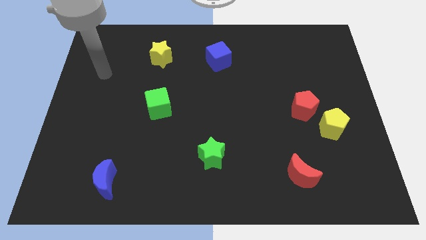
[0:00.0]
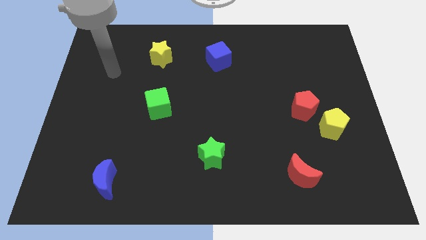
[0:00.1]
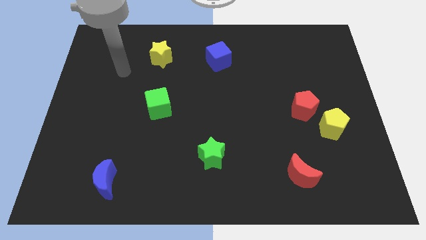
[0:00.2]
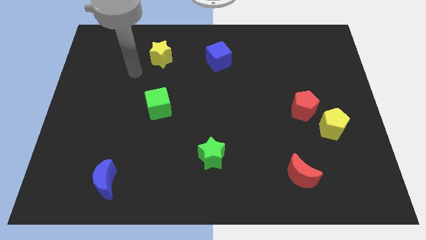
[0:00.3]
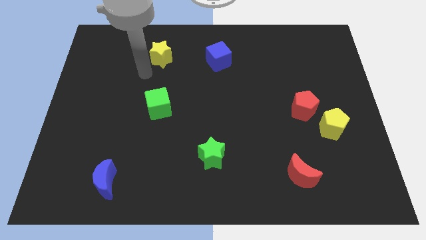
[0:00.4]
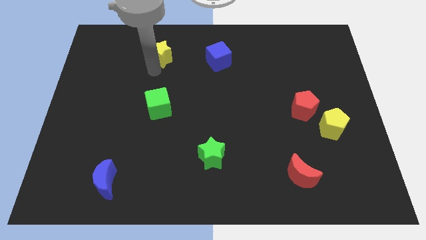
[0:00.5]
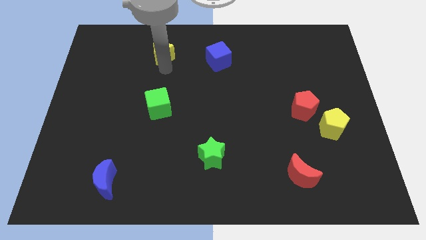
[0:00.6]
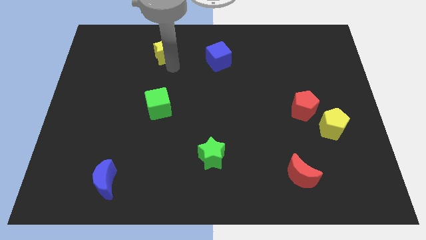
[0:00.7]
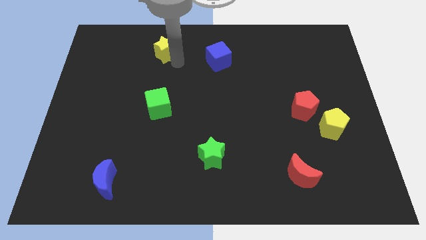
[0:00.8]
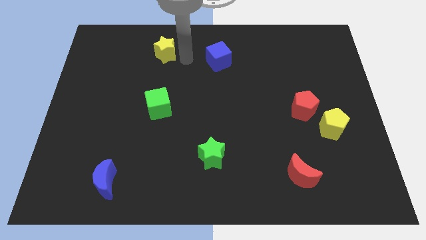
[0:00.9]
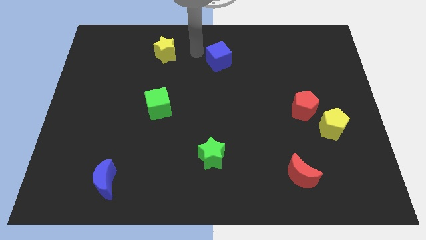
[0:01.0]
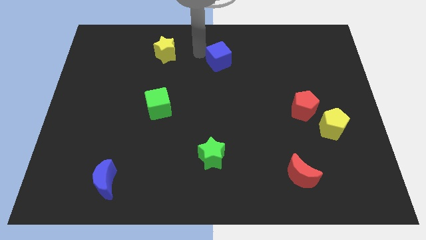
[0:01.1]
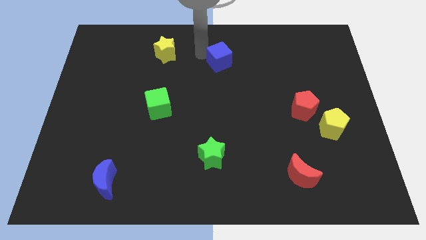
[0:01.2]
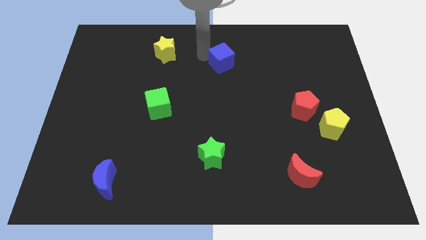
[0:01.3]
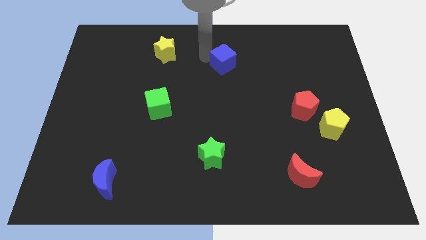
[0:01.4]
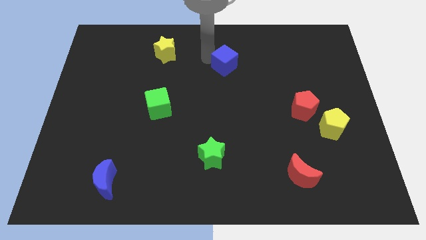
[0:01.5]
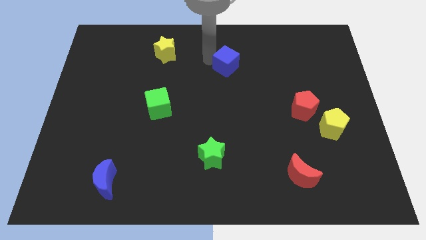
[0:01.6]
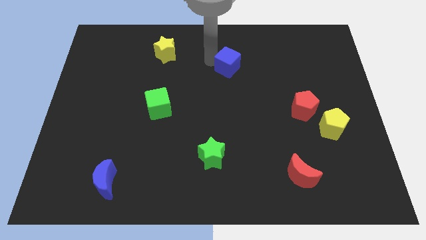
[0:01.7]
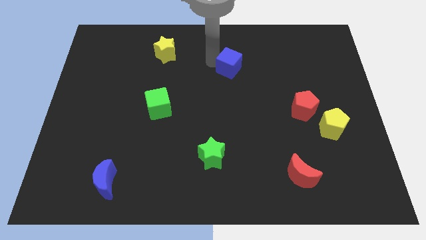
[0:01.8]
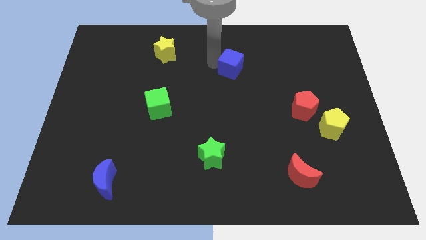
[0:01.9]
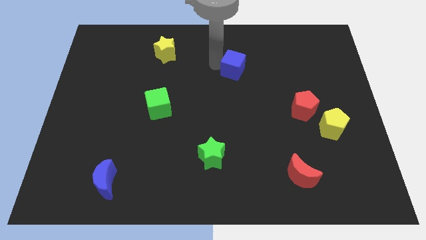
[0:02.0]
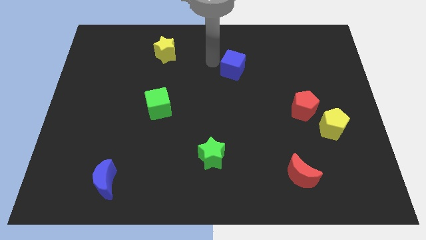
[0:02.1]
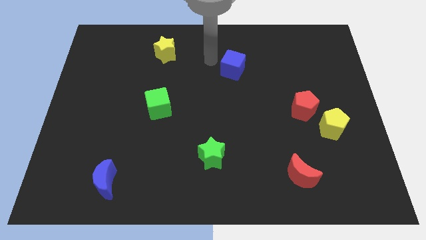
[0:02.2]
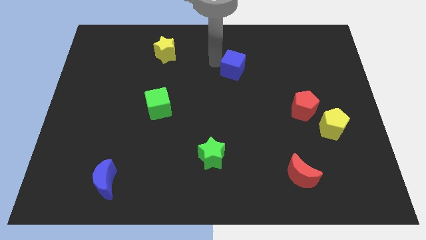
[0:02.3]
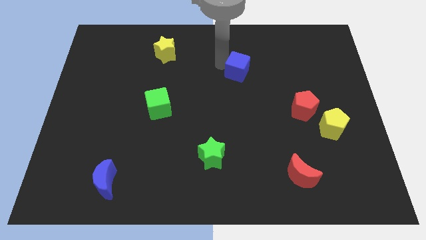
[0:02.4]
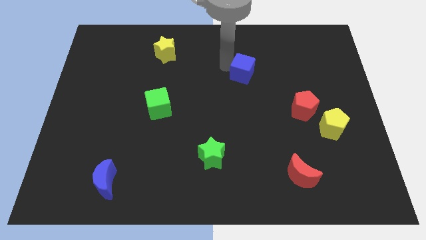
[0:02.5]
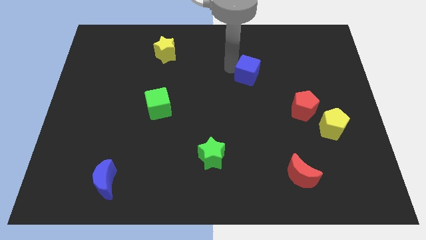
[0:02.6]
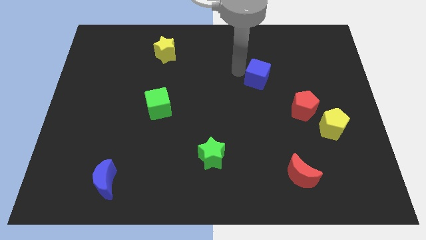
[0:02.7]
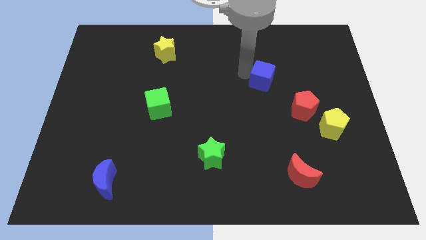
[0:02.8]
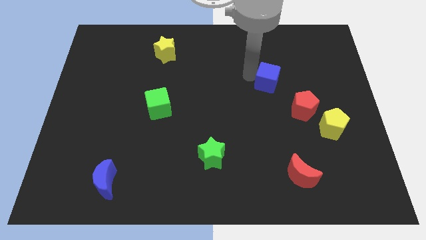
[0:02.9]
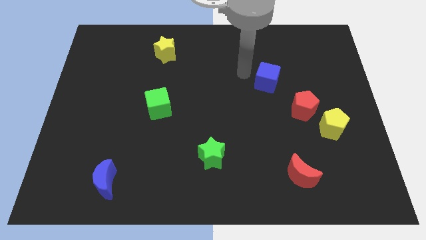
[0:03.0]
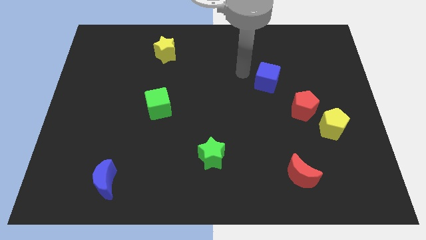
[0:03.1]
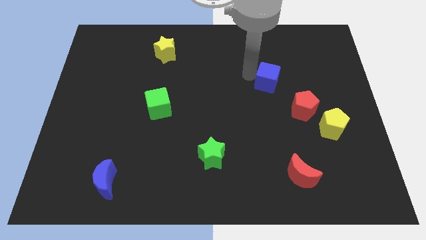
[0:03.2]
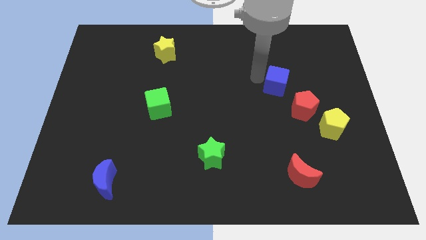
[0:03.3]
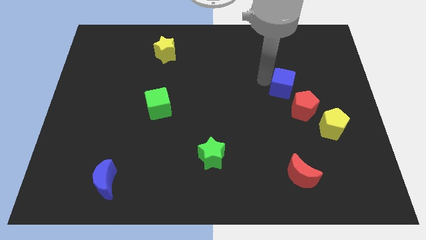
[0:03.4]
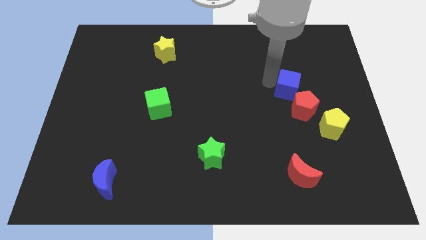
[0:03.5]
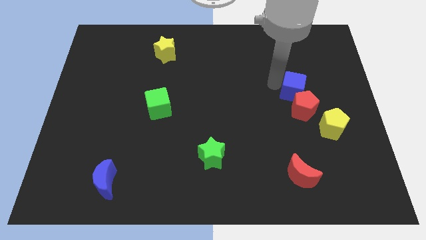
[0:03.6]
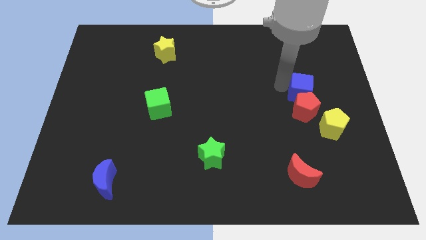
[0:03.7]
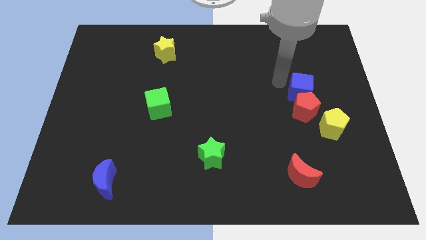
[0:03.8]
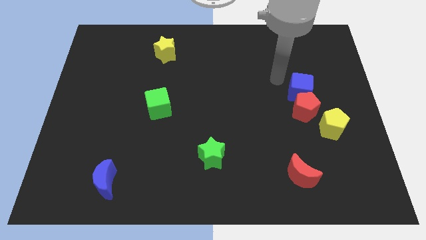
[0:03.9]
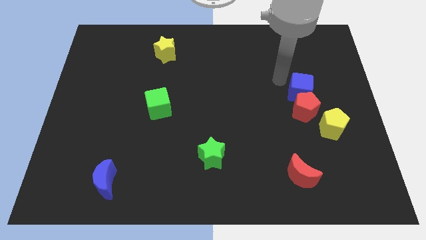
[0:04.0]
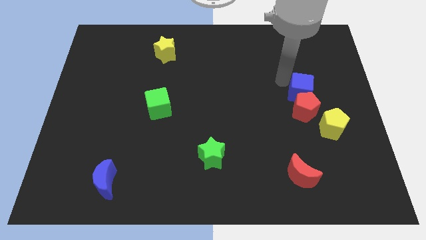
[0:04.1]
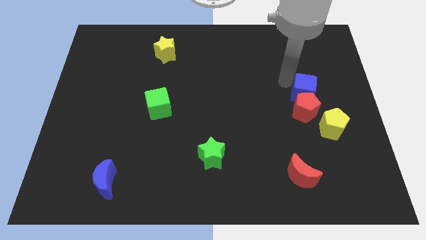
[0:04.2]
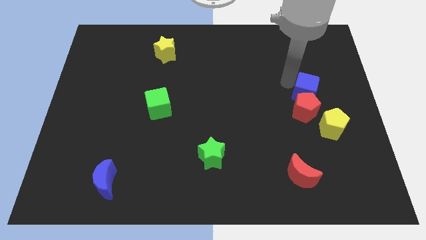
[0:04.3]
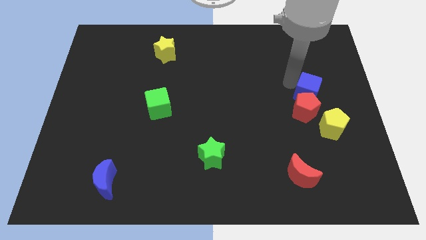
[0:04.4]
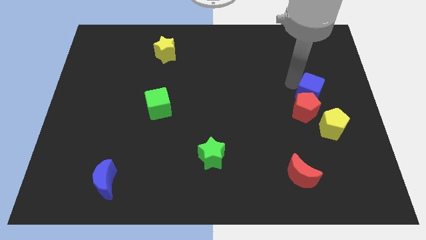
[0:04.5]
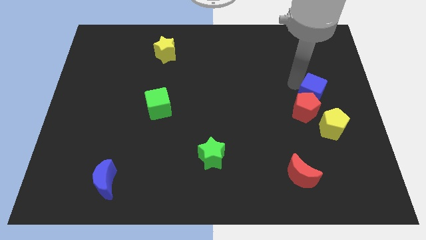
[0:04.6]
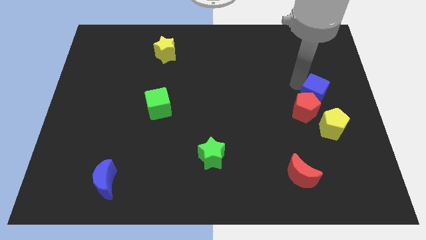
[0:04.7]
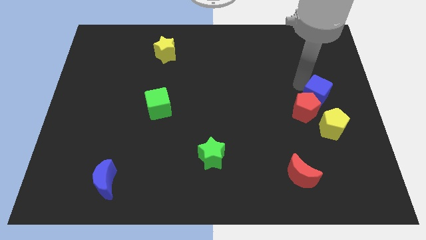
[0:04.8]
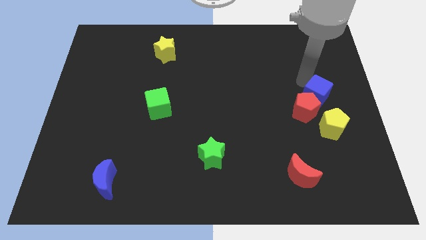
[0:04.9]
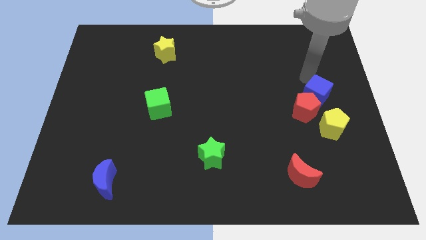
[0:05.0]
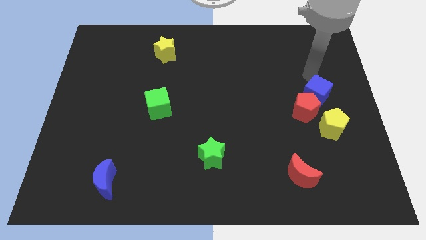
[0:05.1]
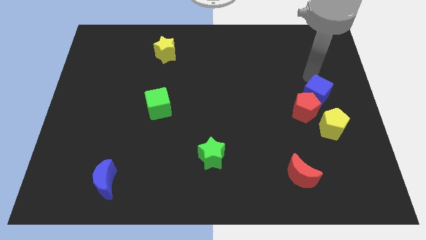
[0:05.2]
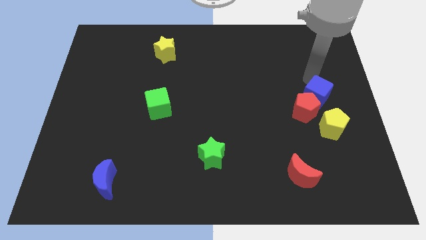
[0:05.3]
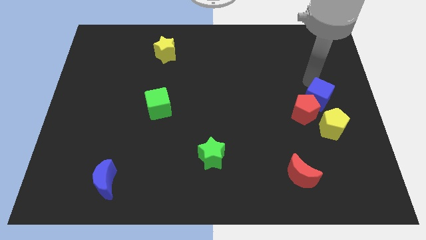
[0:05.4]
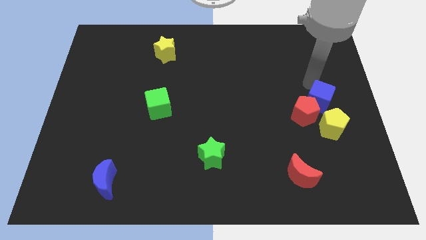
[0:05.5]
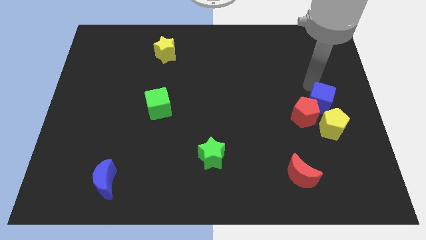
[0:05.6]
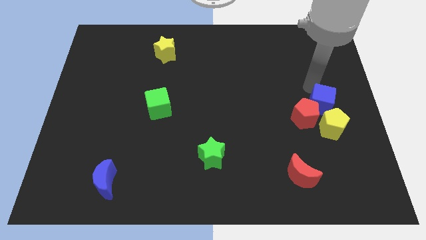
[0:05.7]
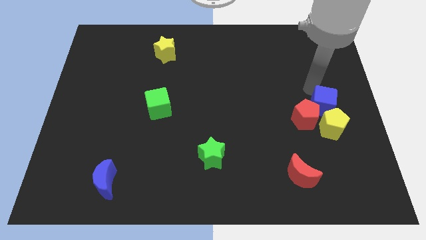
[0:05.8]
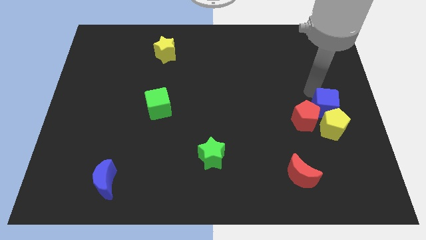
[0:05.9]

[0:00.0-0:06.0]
put the blue cube close to the yellow pentagon

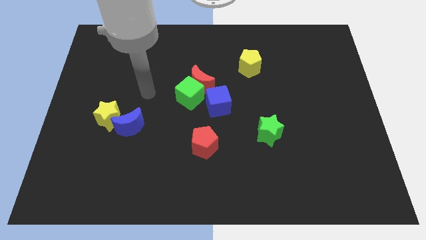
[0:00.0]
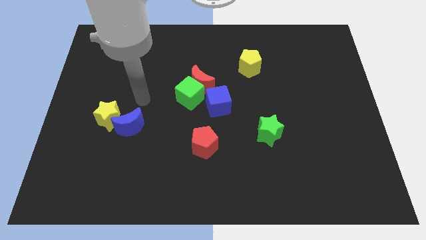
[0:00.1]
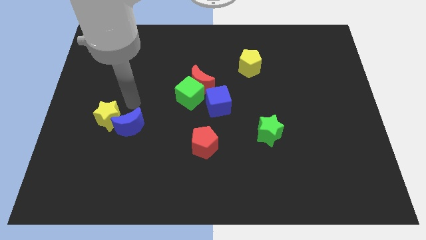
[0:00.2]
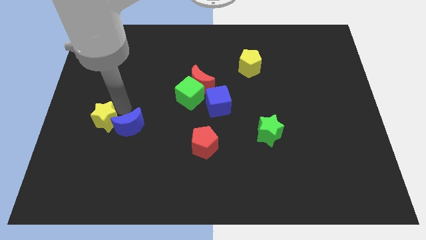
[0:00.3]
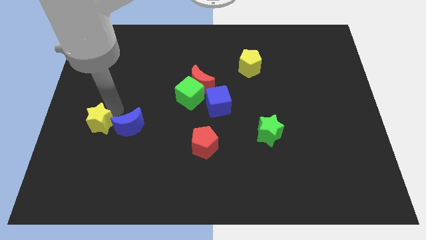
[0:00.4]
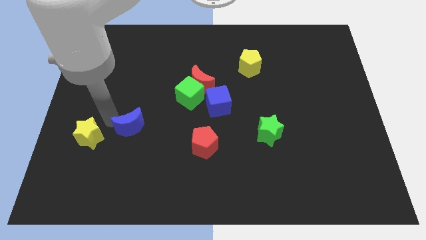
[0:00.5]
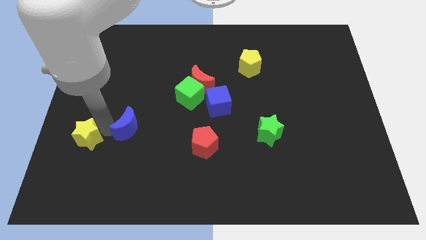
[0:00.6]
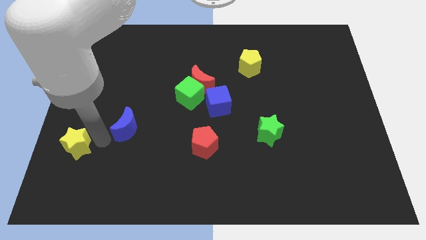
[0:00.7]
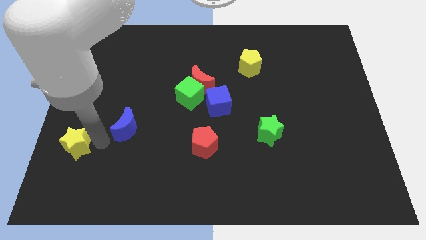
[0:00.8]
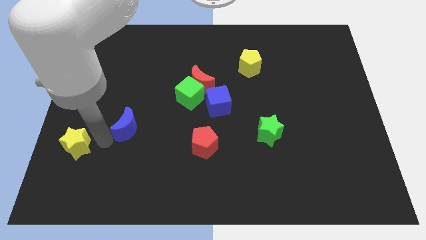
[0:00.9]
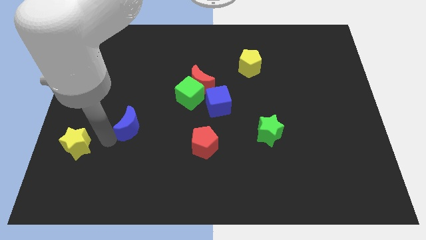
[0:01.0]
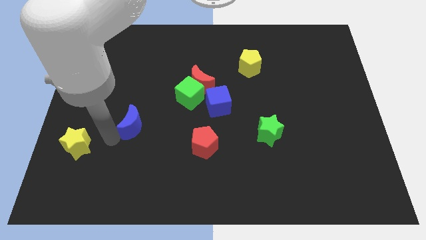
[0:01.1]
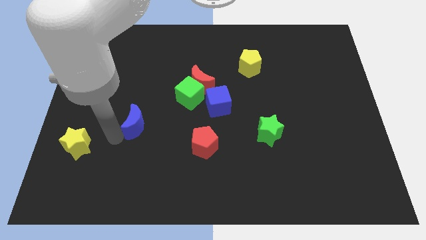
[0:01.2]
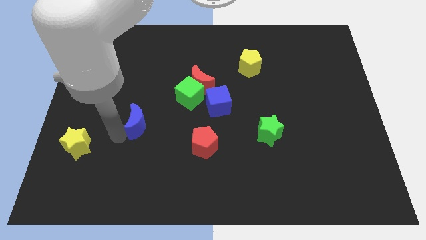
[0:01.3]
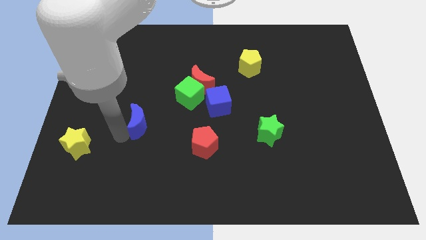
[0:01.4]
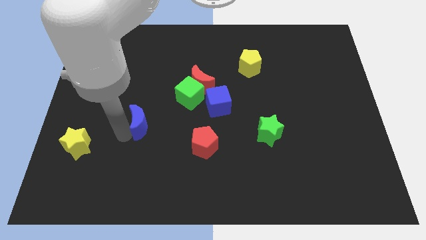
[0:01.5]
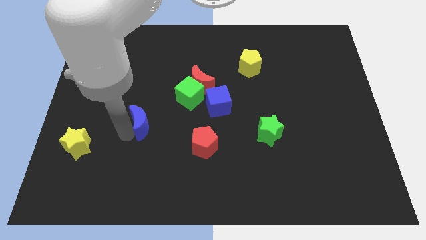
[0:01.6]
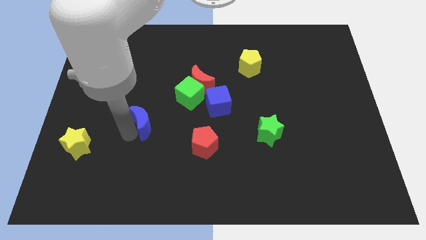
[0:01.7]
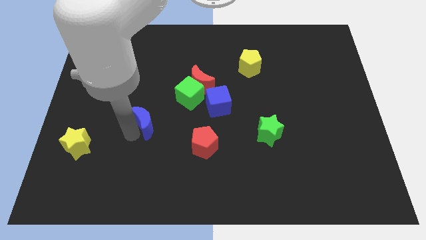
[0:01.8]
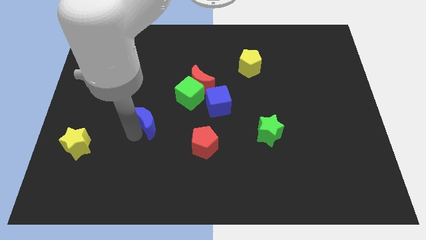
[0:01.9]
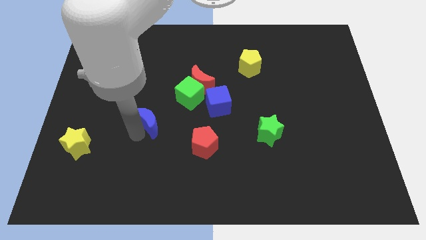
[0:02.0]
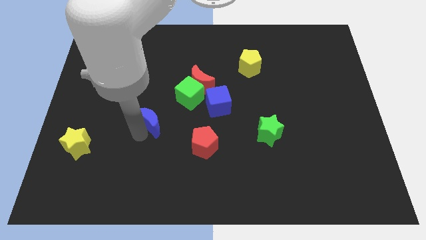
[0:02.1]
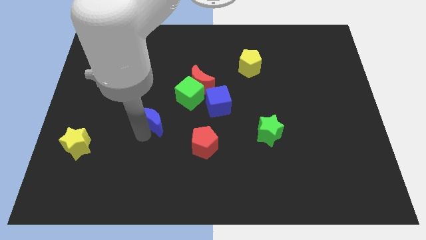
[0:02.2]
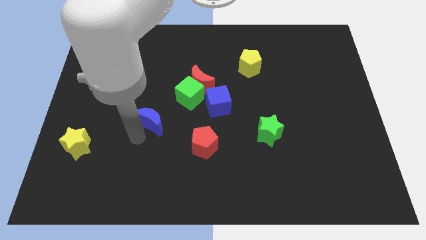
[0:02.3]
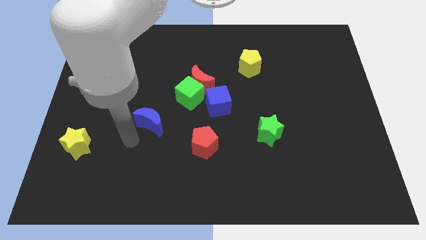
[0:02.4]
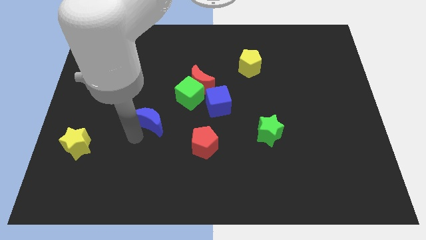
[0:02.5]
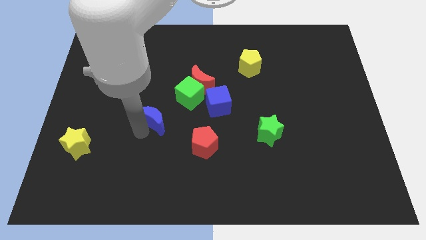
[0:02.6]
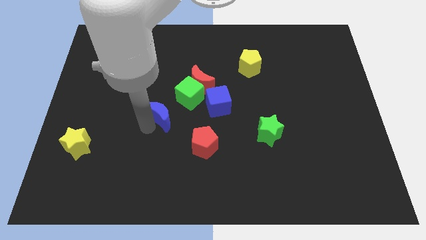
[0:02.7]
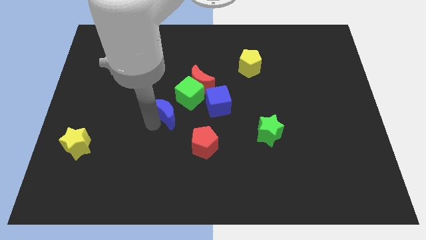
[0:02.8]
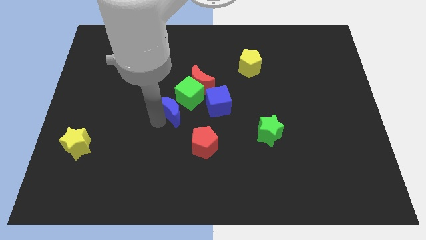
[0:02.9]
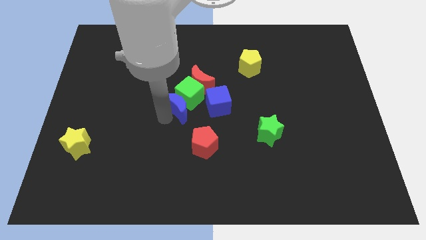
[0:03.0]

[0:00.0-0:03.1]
push the blue moon close to the green cube
